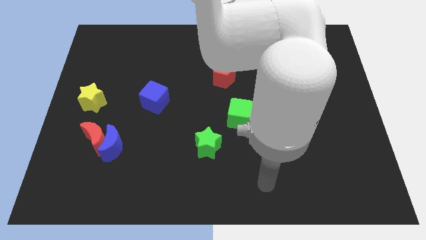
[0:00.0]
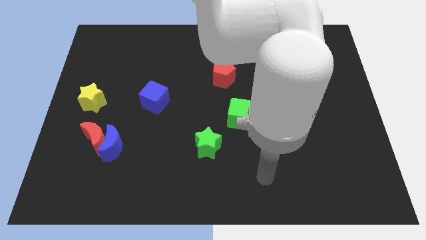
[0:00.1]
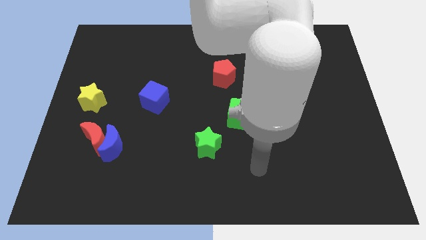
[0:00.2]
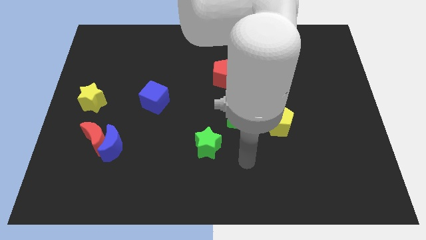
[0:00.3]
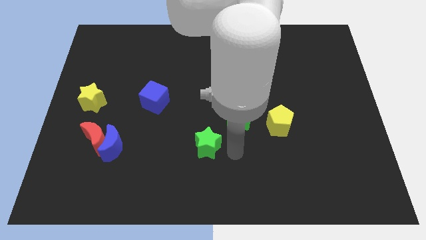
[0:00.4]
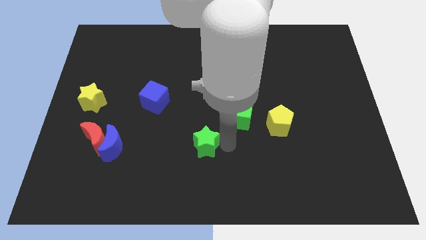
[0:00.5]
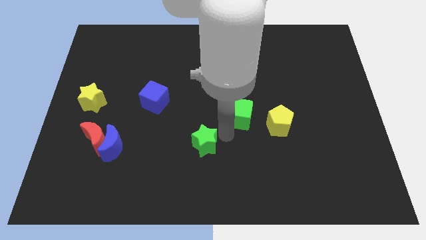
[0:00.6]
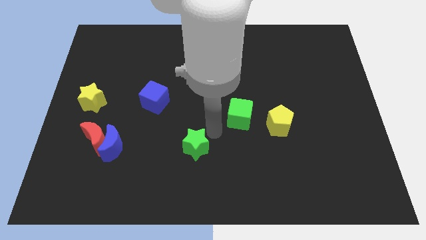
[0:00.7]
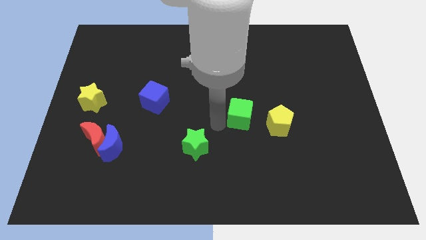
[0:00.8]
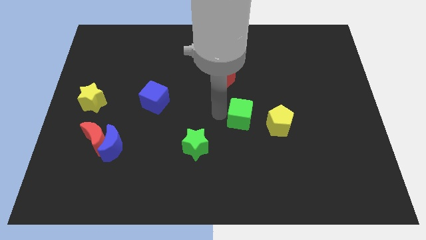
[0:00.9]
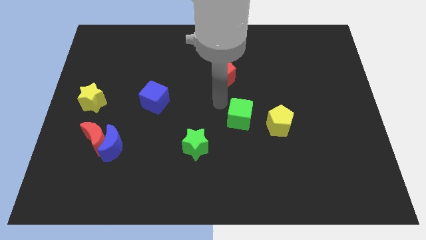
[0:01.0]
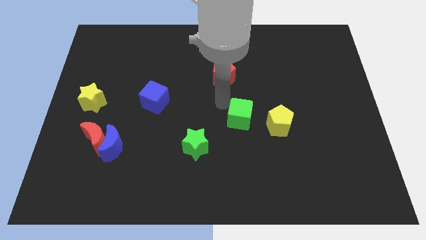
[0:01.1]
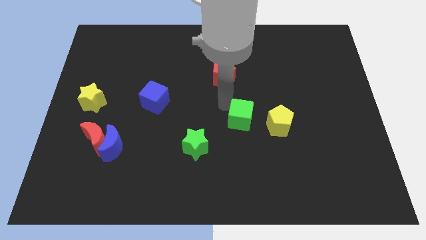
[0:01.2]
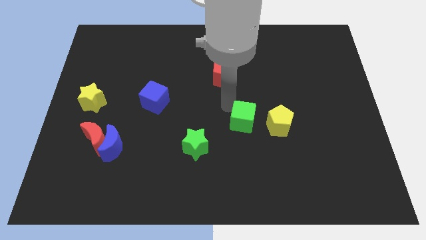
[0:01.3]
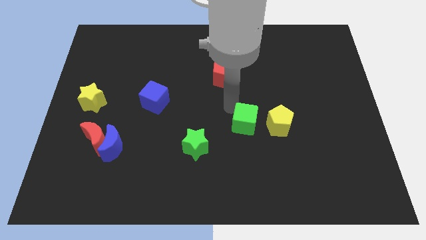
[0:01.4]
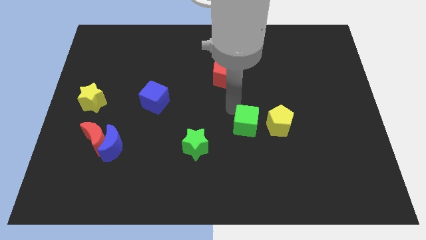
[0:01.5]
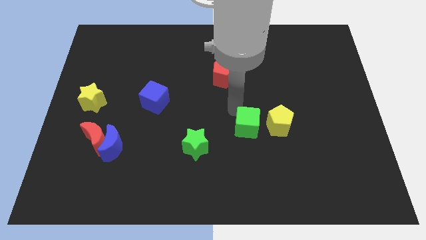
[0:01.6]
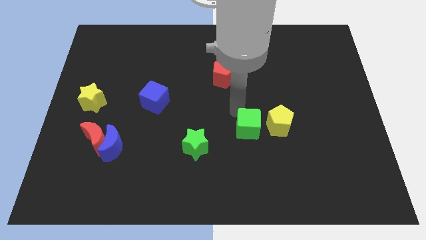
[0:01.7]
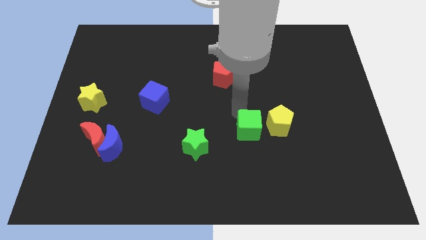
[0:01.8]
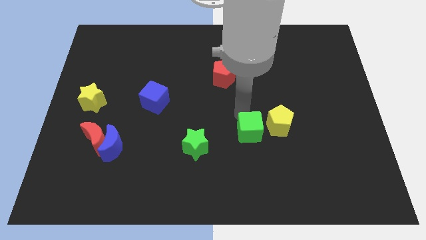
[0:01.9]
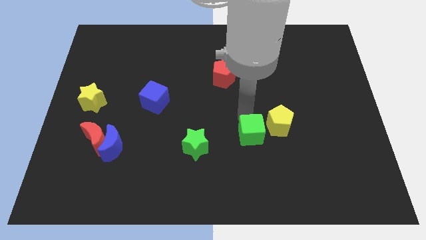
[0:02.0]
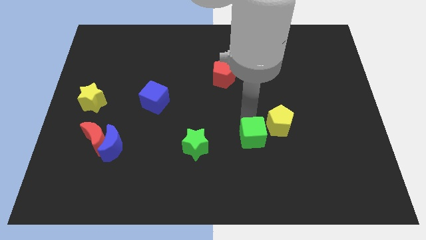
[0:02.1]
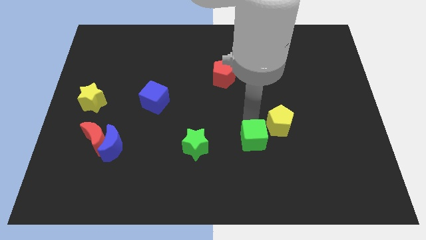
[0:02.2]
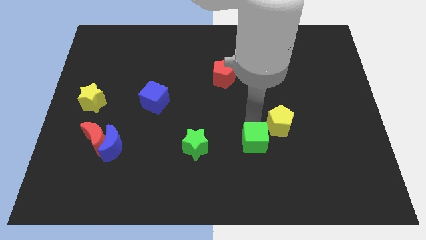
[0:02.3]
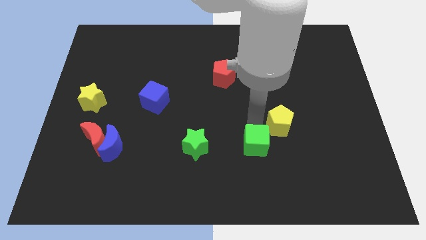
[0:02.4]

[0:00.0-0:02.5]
slightly move the green cube downwards and right diagonally

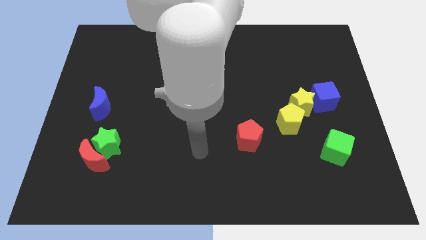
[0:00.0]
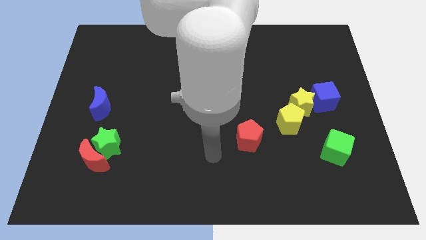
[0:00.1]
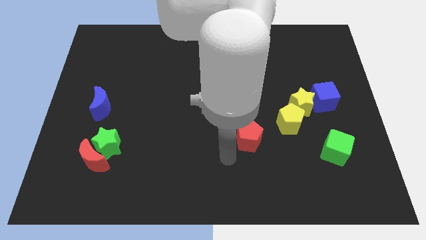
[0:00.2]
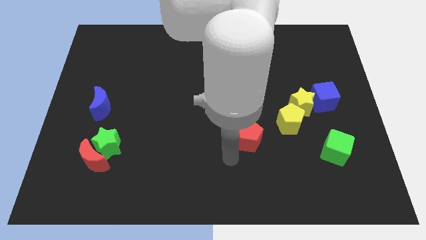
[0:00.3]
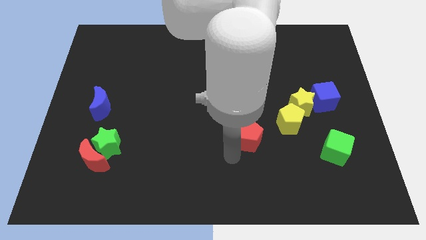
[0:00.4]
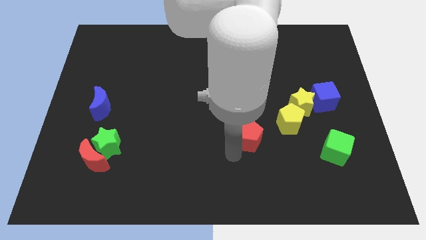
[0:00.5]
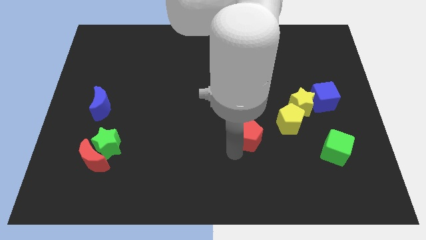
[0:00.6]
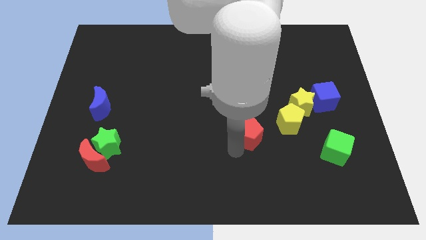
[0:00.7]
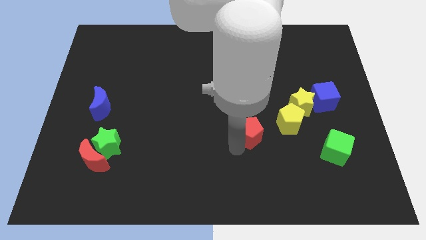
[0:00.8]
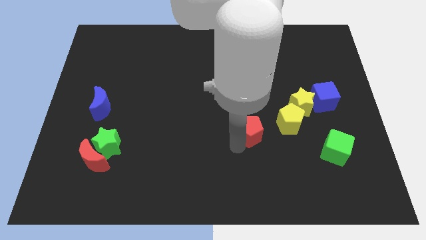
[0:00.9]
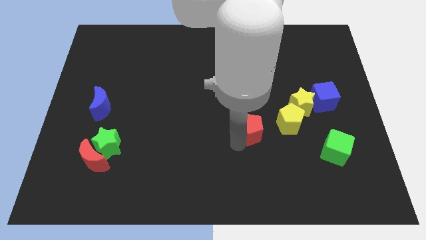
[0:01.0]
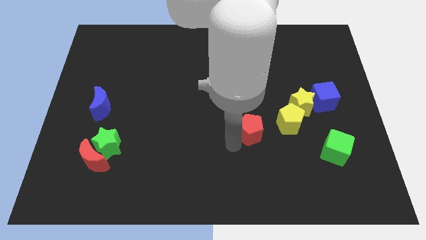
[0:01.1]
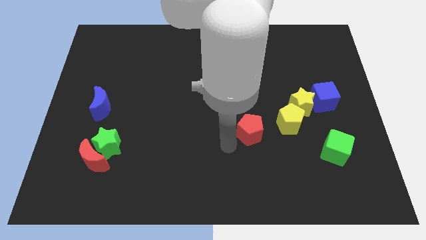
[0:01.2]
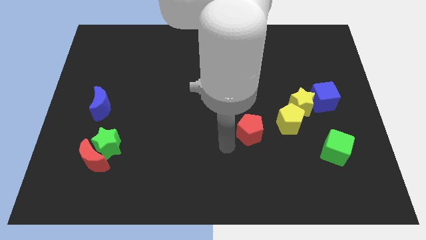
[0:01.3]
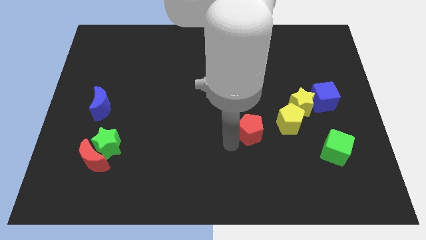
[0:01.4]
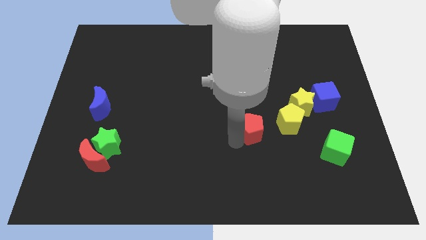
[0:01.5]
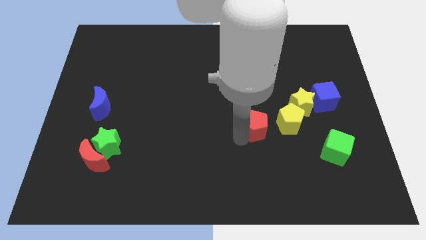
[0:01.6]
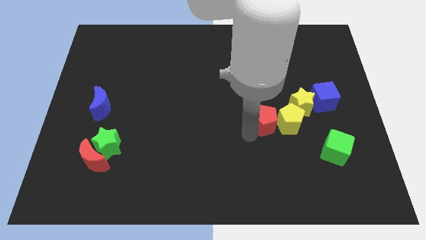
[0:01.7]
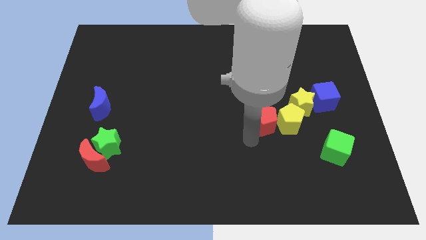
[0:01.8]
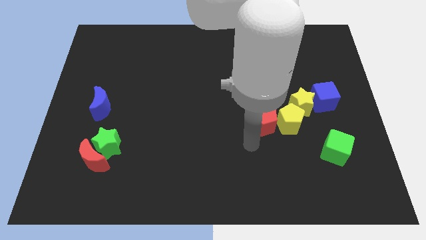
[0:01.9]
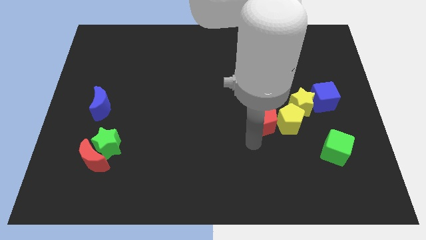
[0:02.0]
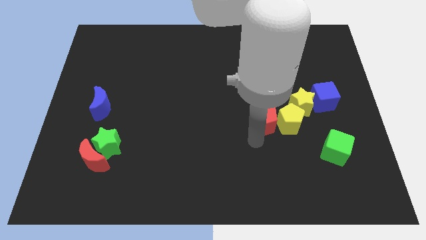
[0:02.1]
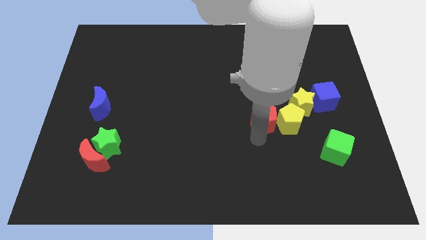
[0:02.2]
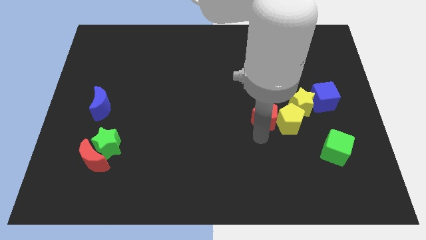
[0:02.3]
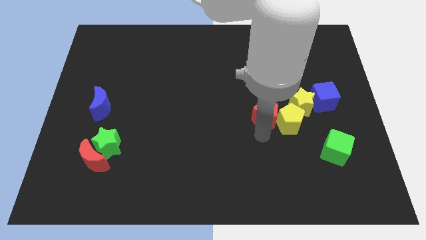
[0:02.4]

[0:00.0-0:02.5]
push the red pentagon diagonally upwards and to the right a little

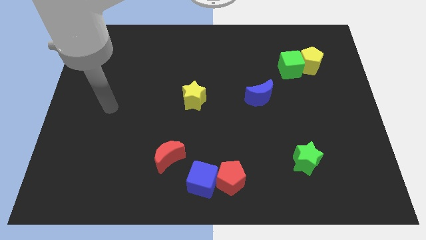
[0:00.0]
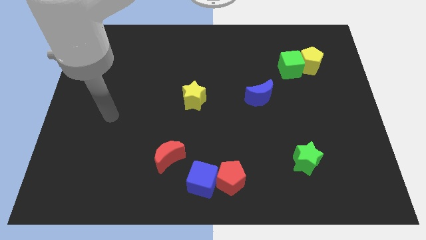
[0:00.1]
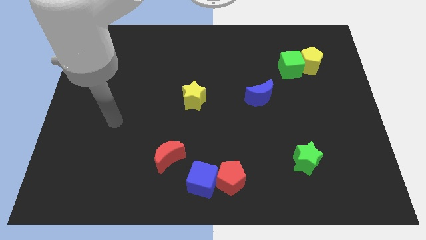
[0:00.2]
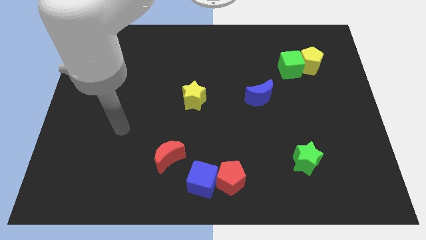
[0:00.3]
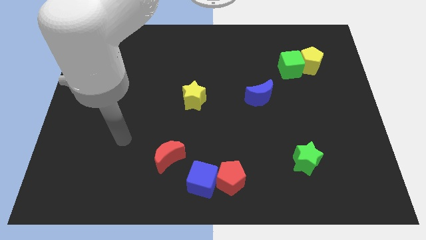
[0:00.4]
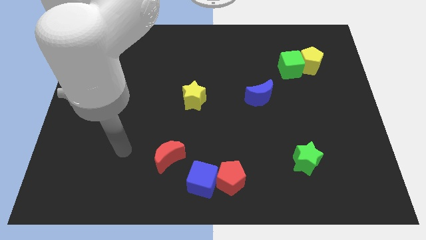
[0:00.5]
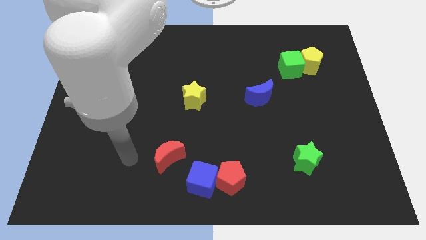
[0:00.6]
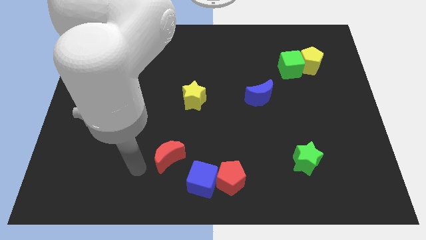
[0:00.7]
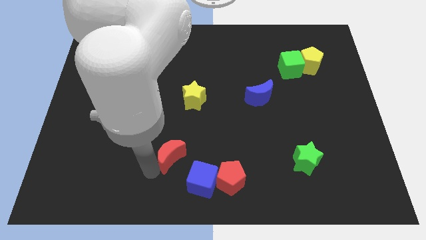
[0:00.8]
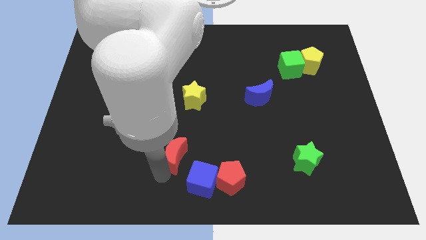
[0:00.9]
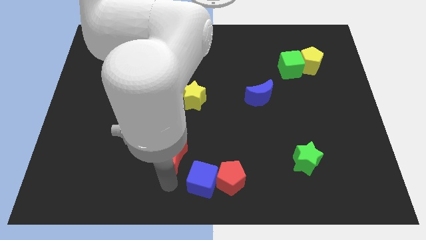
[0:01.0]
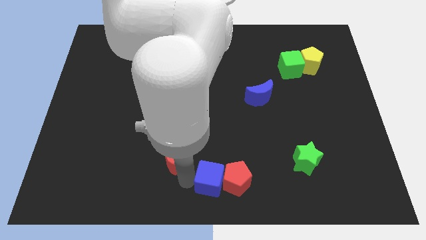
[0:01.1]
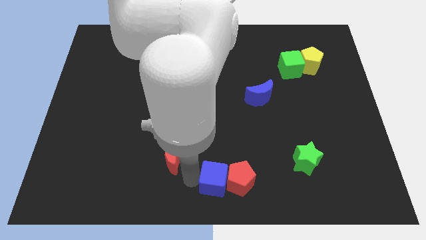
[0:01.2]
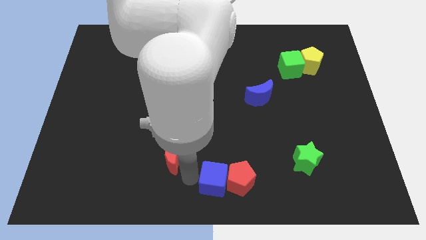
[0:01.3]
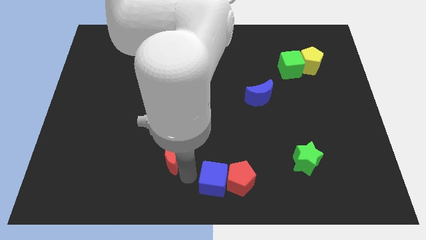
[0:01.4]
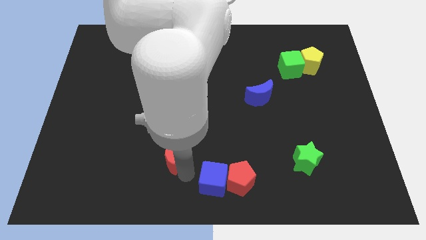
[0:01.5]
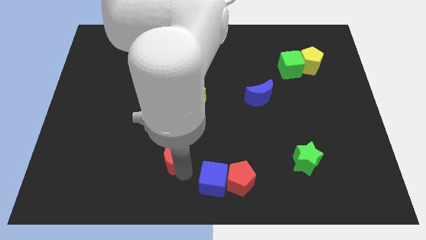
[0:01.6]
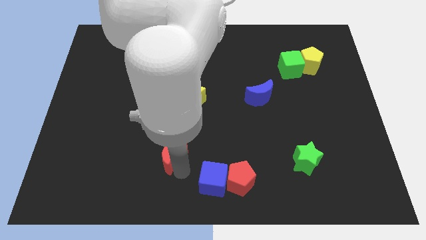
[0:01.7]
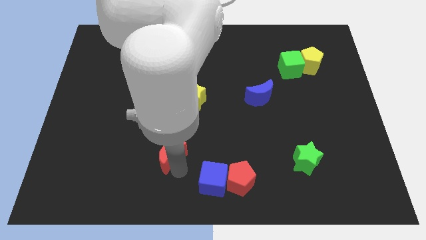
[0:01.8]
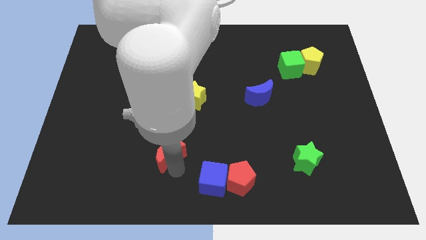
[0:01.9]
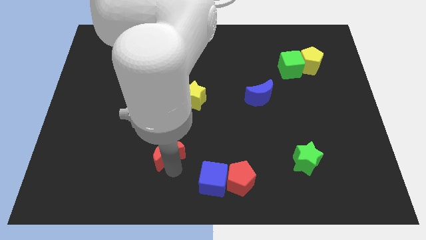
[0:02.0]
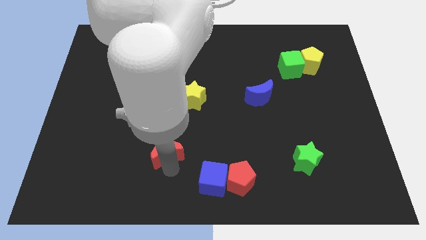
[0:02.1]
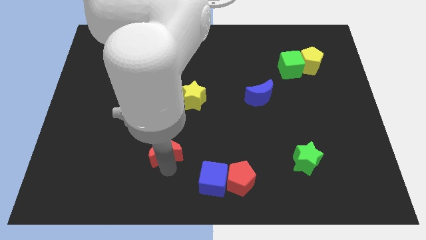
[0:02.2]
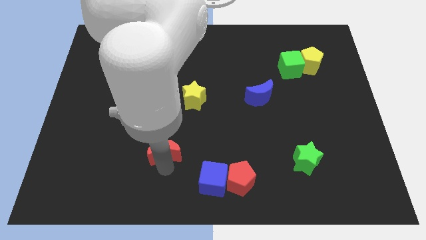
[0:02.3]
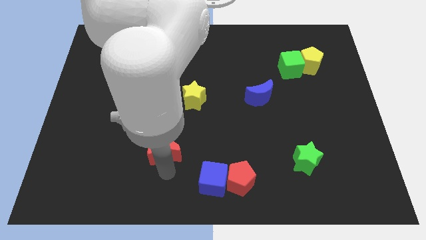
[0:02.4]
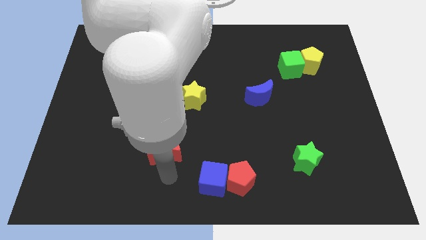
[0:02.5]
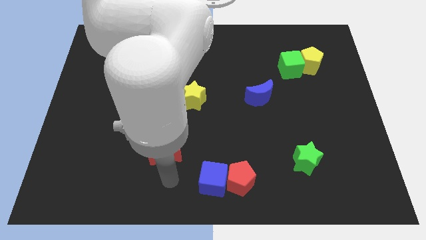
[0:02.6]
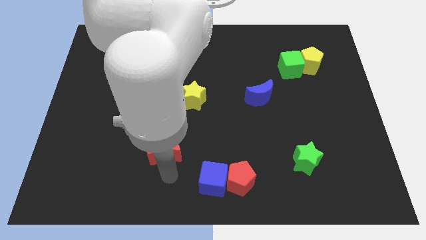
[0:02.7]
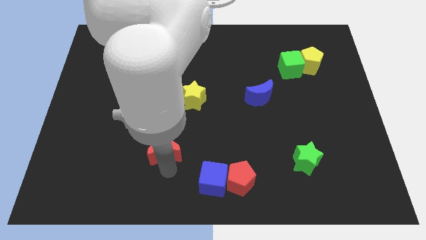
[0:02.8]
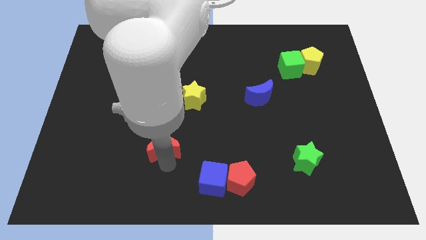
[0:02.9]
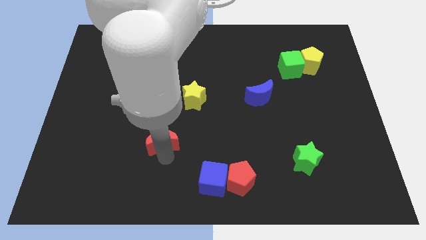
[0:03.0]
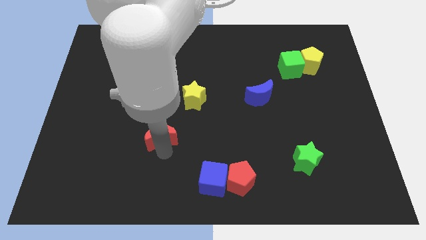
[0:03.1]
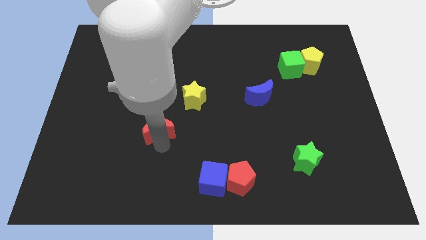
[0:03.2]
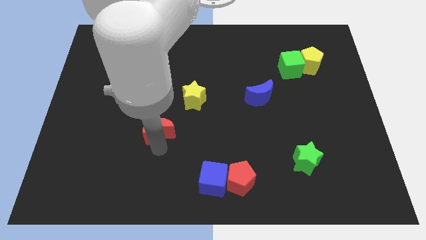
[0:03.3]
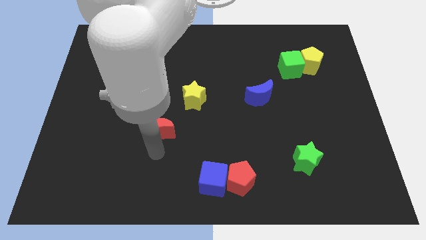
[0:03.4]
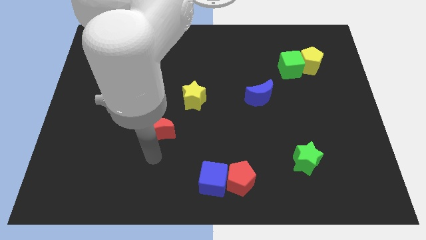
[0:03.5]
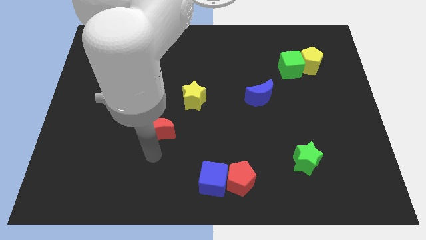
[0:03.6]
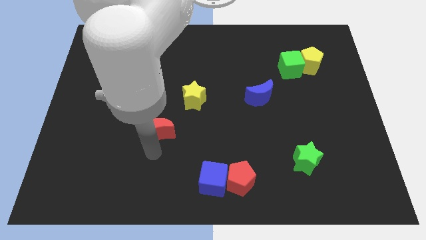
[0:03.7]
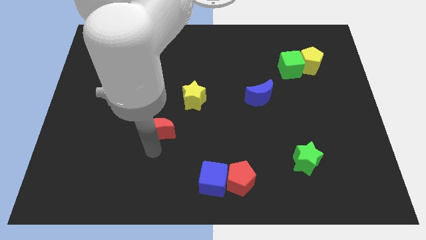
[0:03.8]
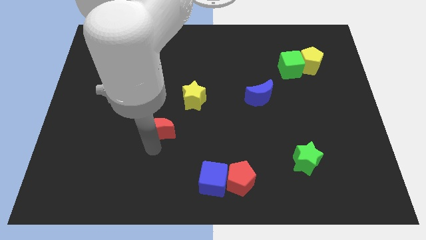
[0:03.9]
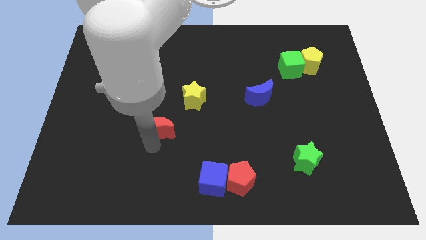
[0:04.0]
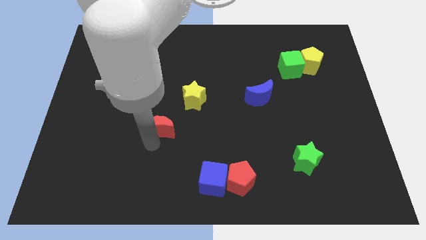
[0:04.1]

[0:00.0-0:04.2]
slightly push the red moon up
